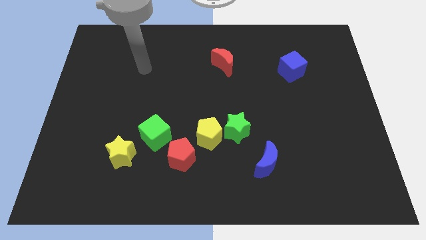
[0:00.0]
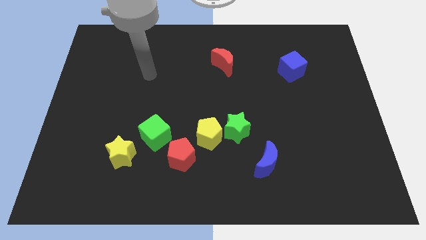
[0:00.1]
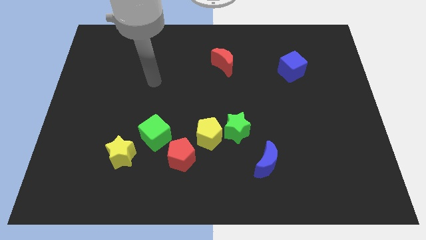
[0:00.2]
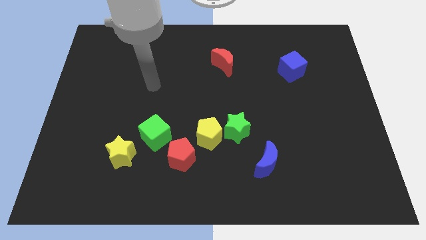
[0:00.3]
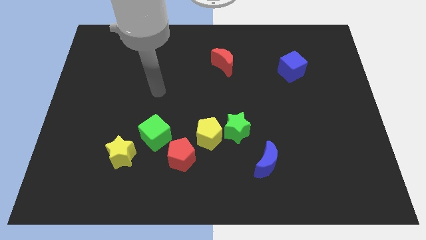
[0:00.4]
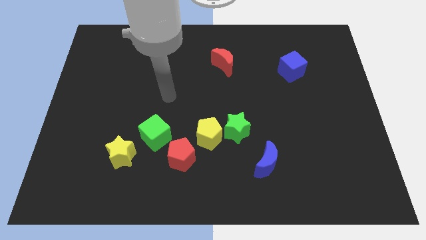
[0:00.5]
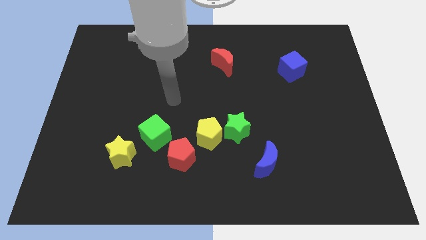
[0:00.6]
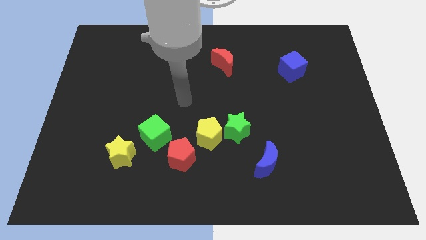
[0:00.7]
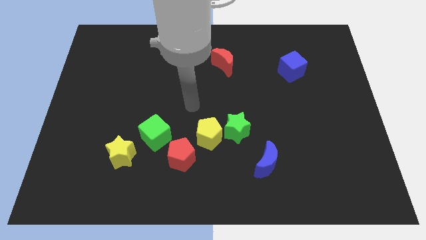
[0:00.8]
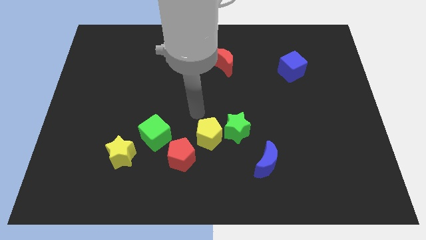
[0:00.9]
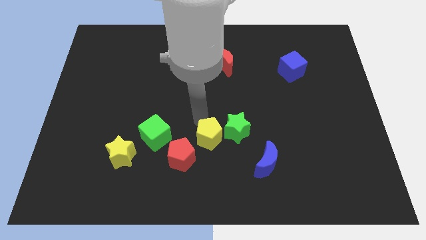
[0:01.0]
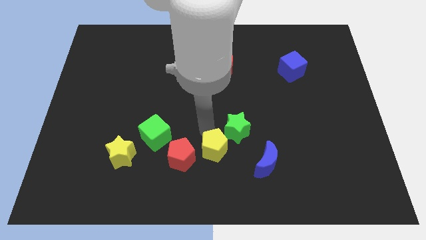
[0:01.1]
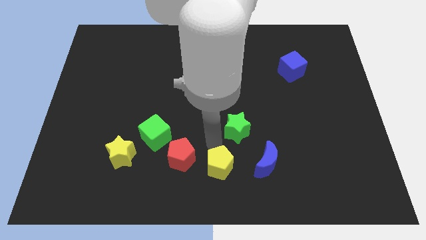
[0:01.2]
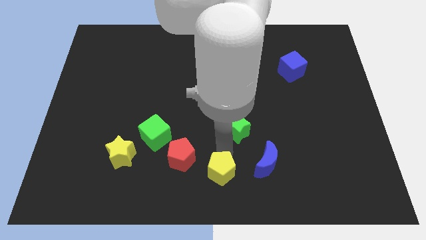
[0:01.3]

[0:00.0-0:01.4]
separate the green star from the yellow pentagon

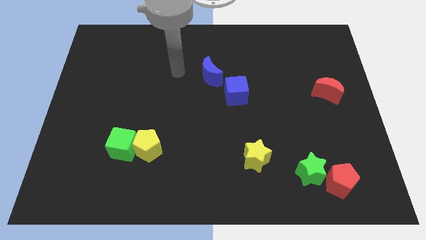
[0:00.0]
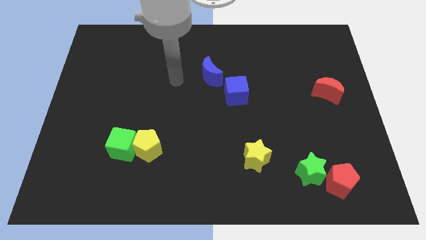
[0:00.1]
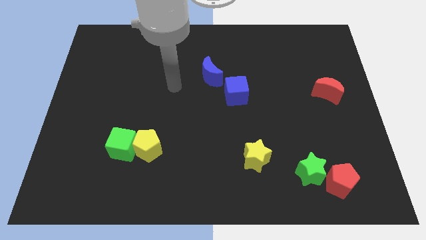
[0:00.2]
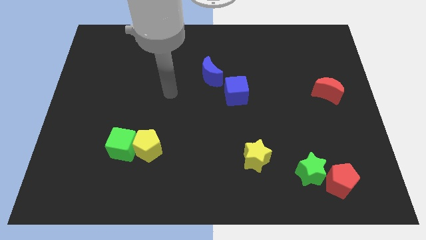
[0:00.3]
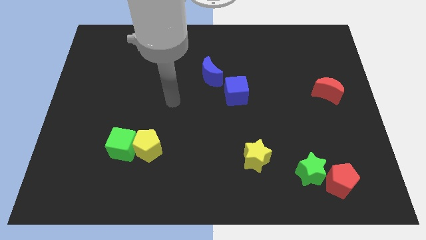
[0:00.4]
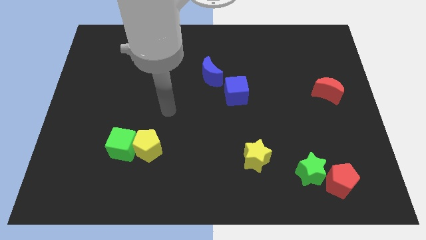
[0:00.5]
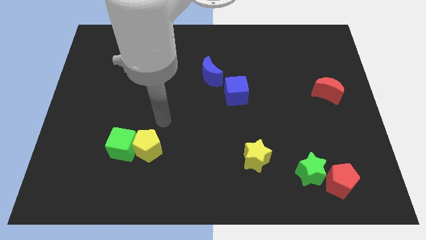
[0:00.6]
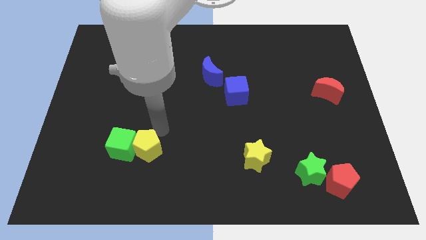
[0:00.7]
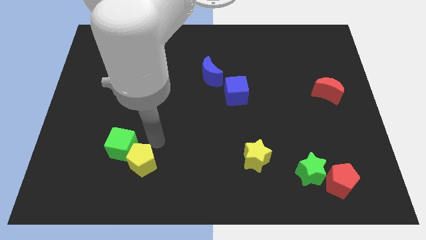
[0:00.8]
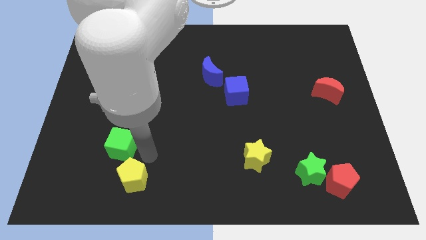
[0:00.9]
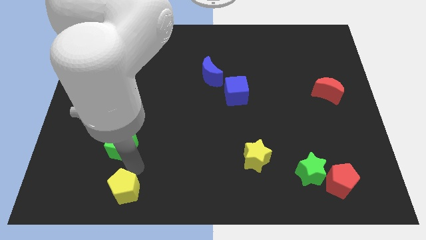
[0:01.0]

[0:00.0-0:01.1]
pull the green cube apart from the yellow pentagon

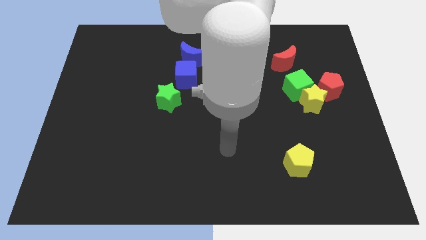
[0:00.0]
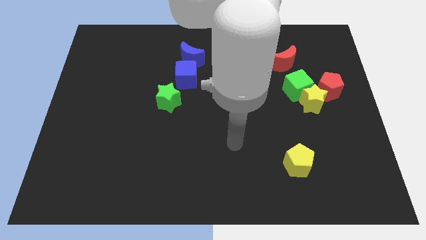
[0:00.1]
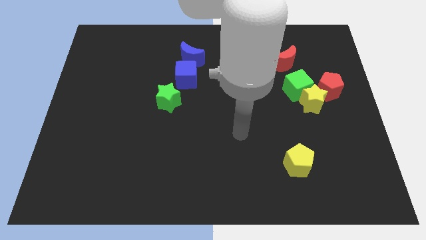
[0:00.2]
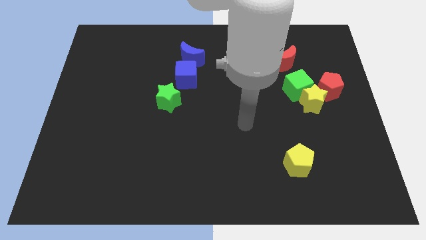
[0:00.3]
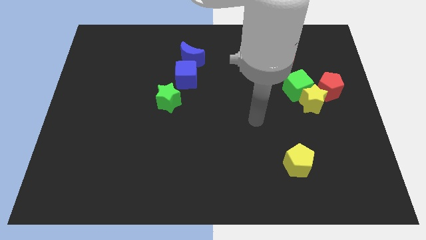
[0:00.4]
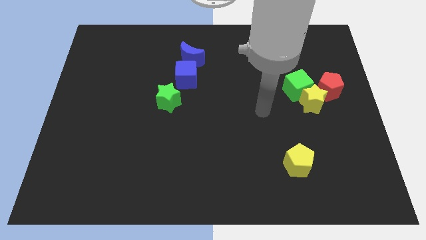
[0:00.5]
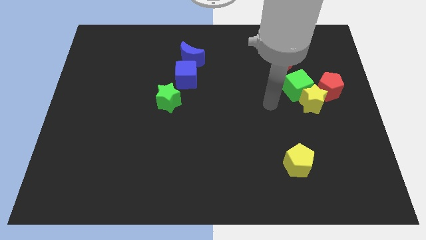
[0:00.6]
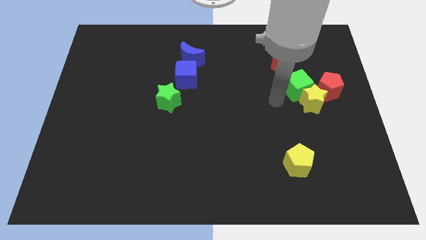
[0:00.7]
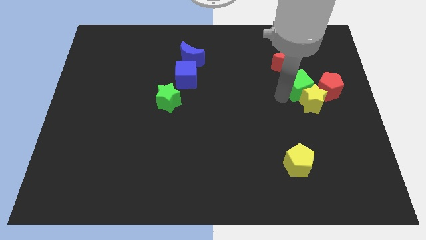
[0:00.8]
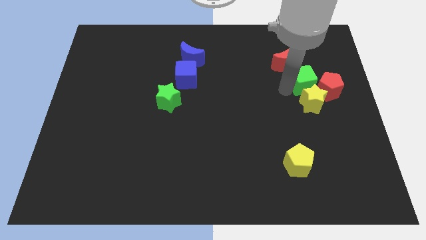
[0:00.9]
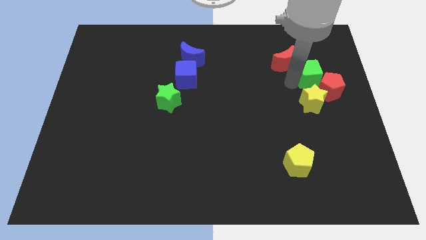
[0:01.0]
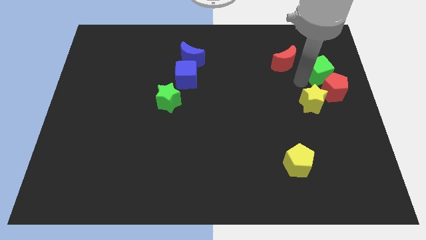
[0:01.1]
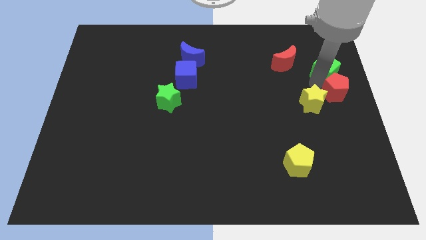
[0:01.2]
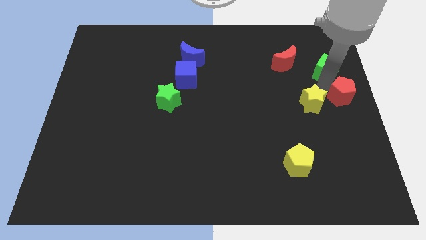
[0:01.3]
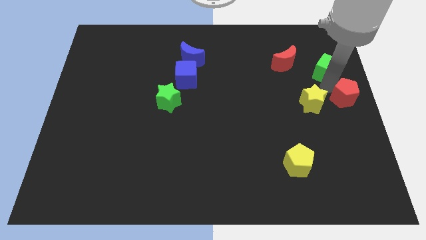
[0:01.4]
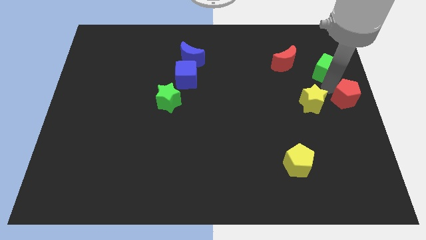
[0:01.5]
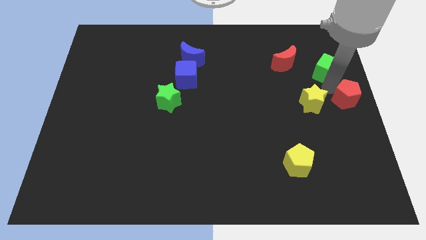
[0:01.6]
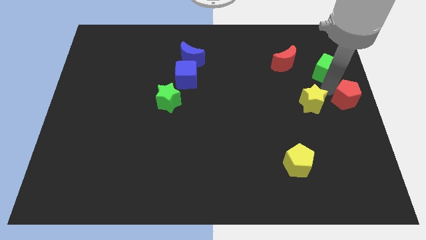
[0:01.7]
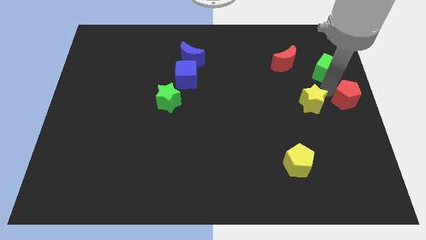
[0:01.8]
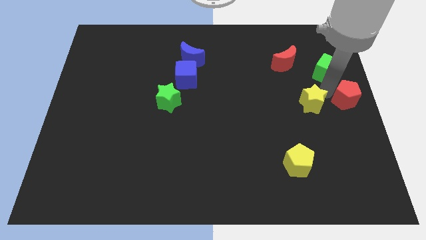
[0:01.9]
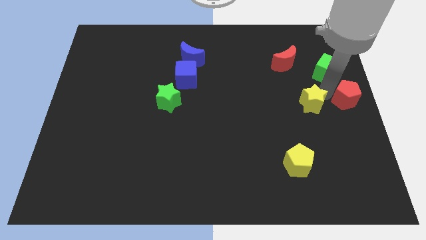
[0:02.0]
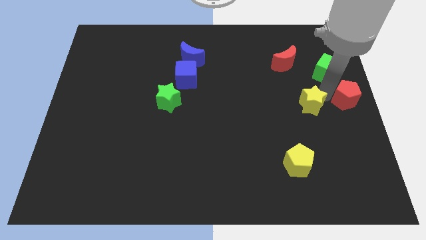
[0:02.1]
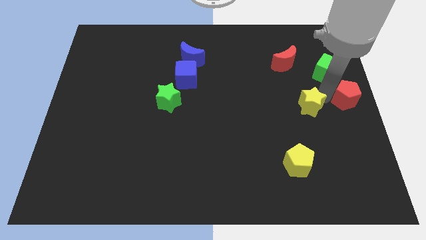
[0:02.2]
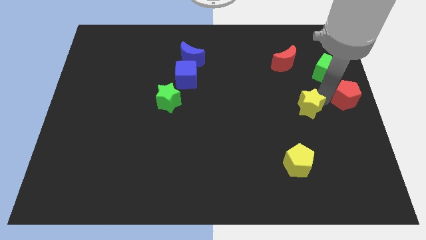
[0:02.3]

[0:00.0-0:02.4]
separate the yellow star from the green cube and red pentagon

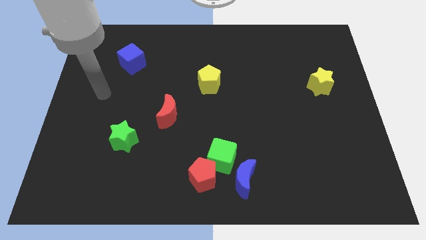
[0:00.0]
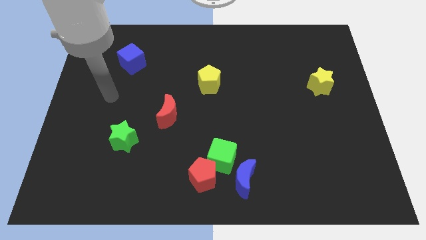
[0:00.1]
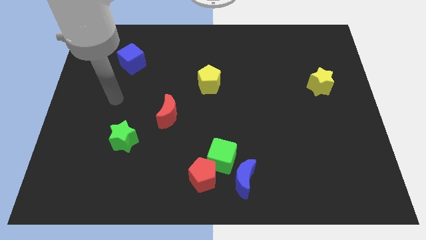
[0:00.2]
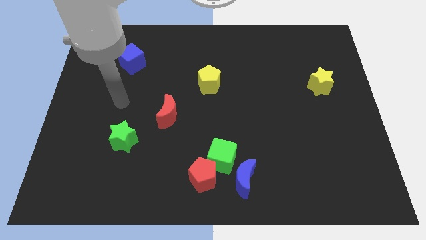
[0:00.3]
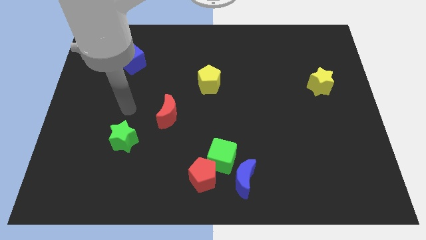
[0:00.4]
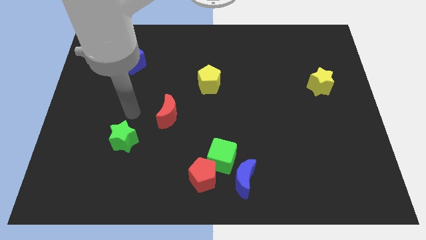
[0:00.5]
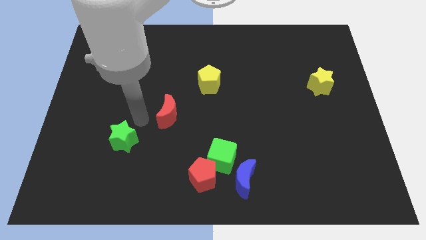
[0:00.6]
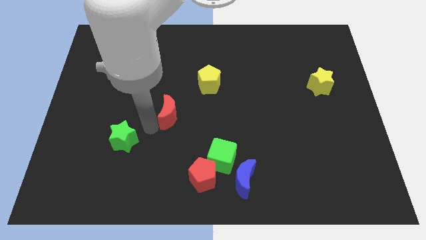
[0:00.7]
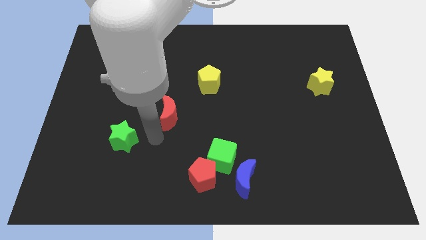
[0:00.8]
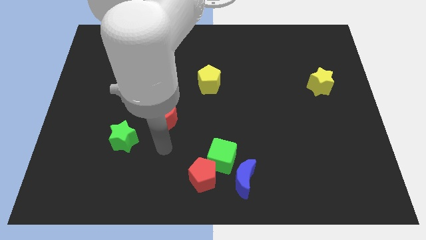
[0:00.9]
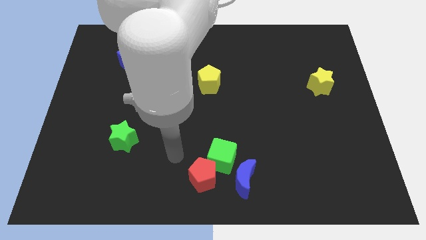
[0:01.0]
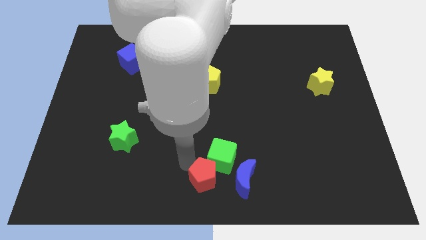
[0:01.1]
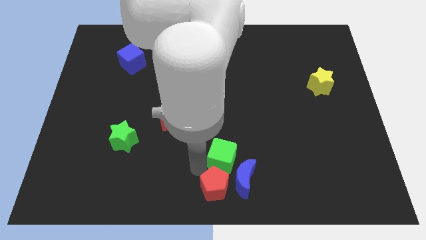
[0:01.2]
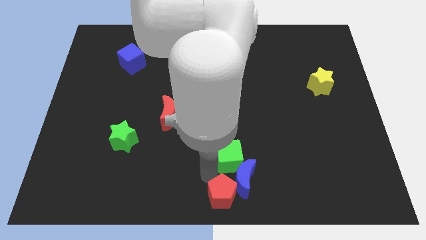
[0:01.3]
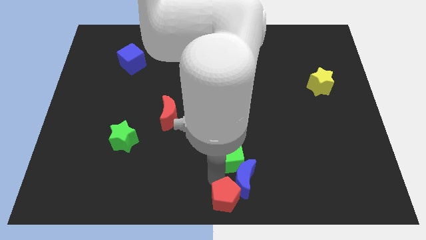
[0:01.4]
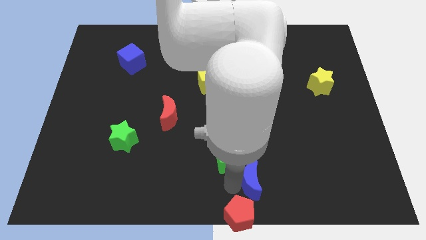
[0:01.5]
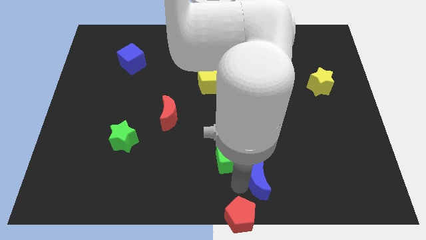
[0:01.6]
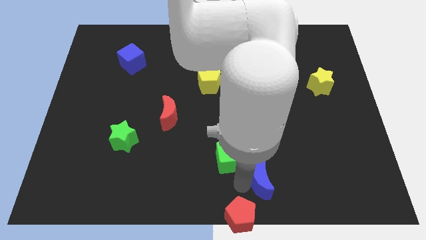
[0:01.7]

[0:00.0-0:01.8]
pull the green cube apart from the red pentagon and blue moon

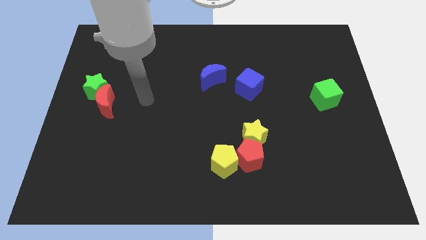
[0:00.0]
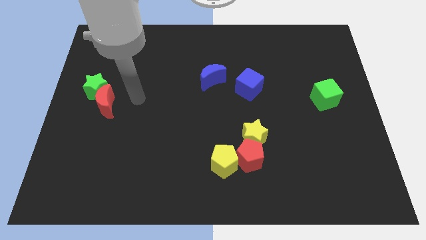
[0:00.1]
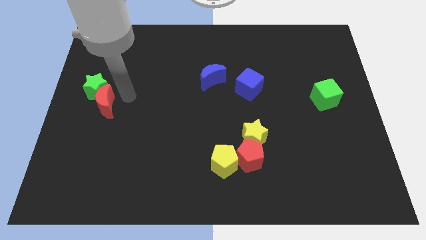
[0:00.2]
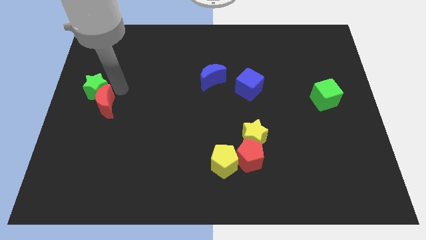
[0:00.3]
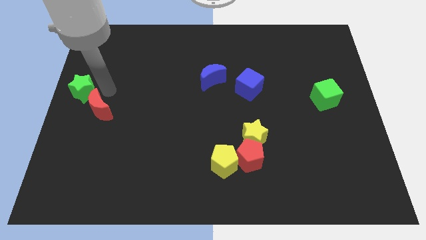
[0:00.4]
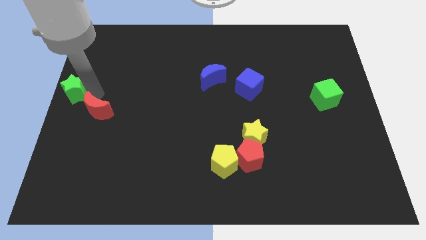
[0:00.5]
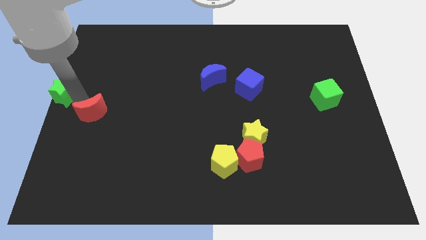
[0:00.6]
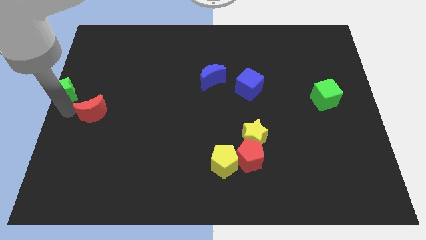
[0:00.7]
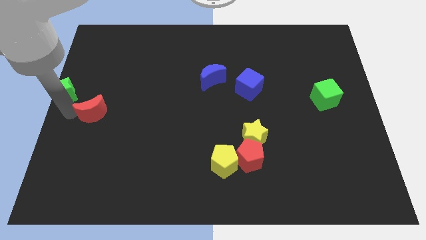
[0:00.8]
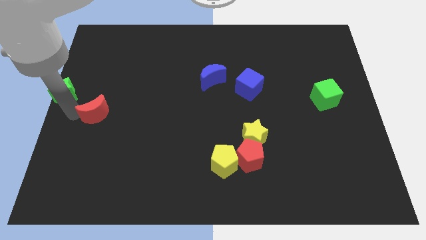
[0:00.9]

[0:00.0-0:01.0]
move the red moon away from the green star

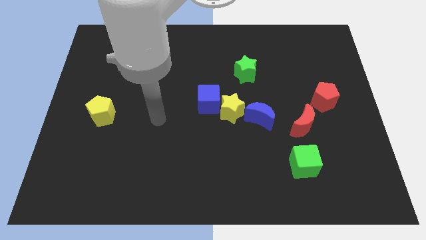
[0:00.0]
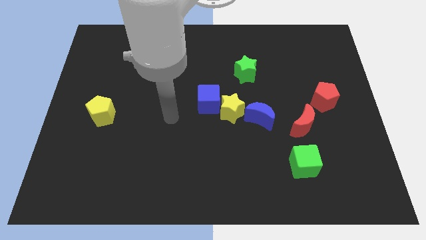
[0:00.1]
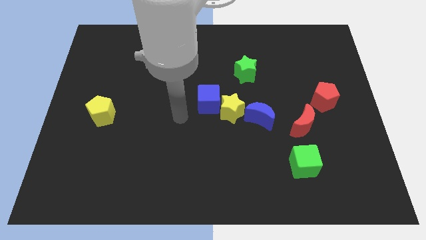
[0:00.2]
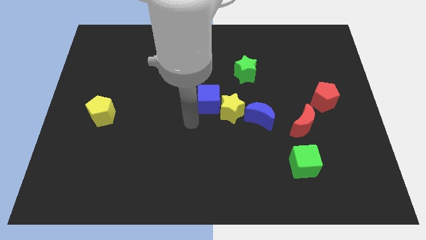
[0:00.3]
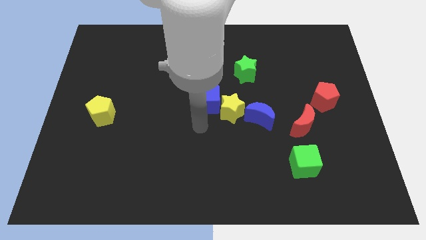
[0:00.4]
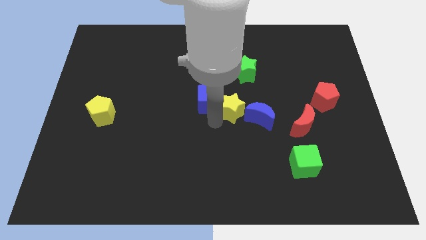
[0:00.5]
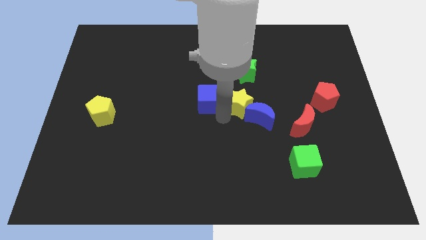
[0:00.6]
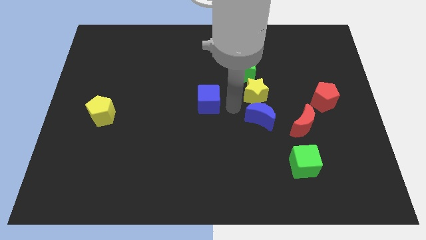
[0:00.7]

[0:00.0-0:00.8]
pull the blue cube apart from the yellow star

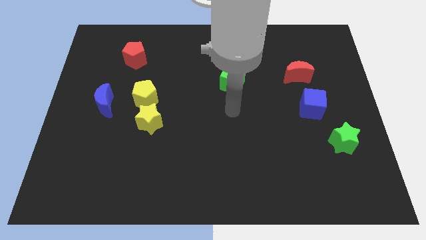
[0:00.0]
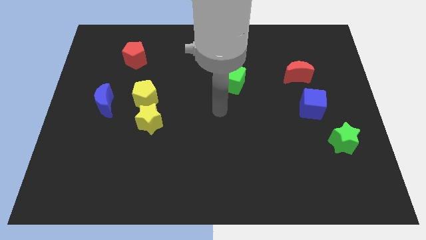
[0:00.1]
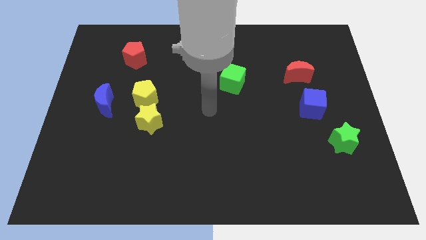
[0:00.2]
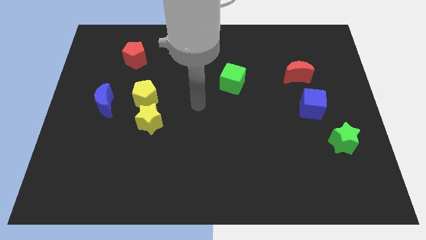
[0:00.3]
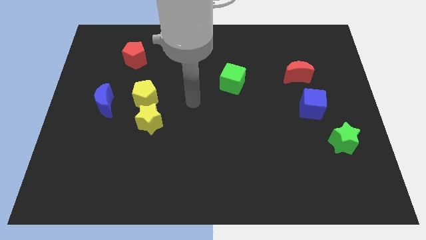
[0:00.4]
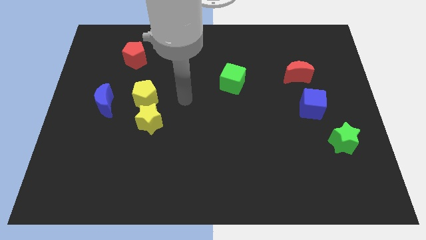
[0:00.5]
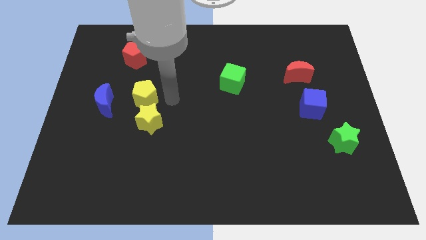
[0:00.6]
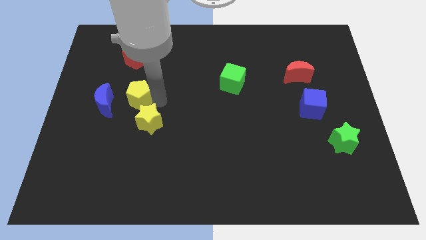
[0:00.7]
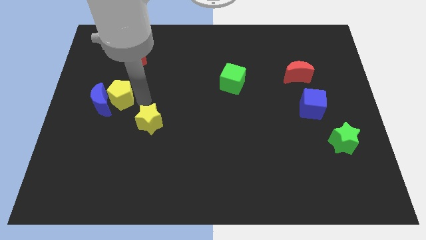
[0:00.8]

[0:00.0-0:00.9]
separate the yellow star from the yellow pentagon
